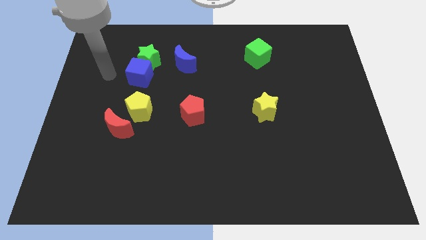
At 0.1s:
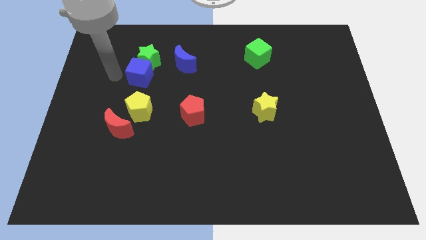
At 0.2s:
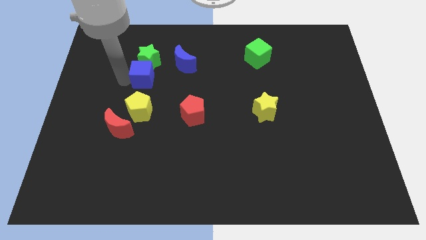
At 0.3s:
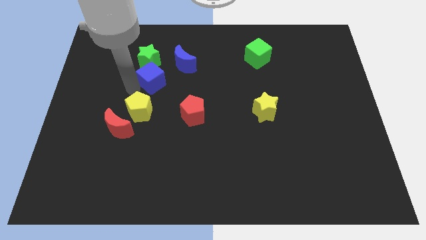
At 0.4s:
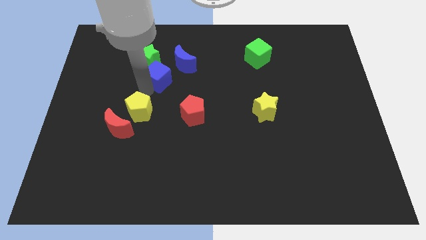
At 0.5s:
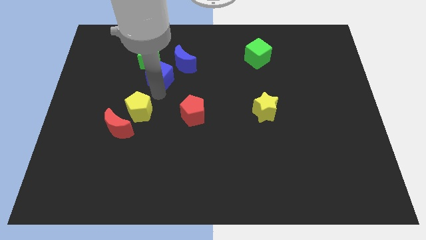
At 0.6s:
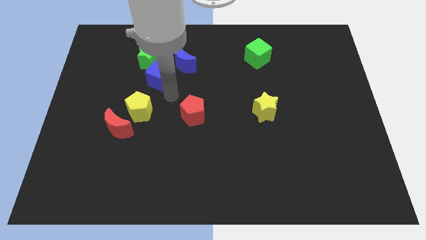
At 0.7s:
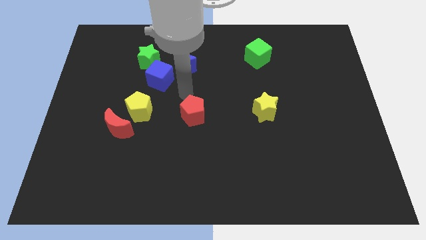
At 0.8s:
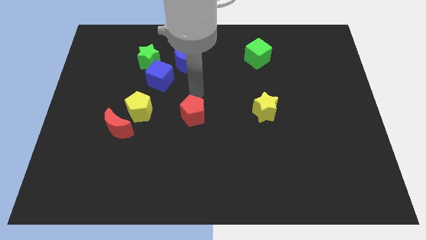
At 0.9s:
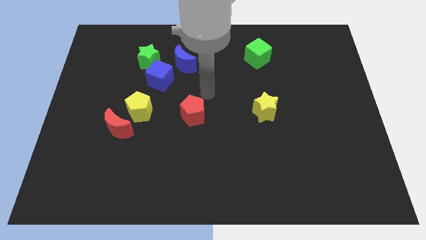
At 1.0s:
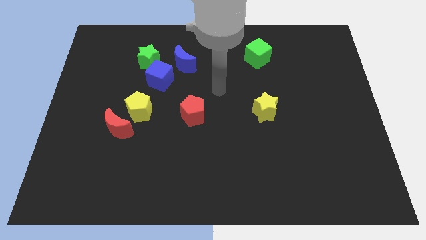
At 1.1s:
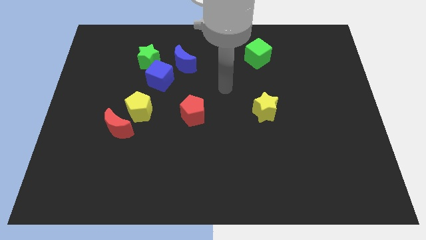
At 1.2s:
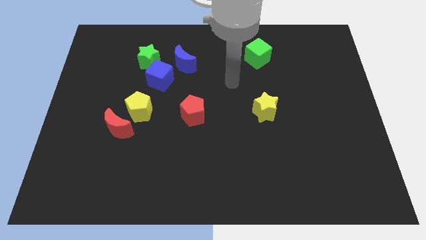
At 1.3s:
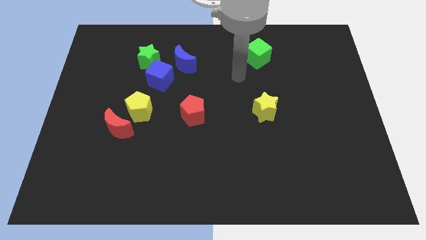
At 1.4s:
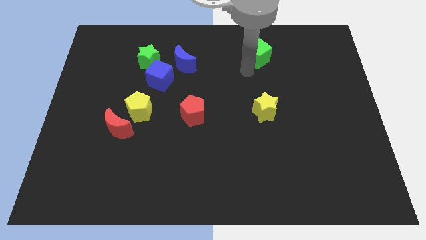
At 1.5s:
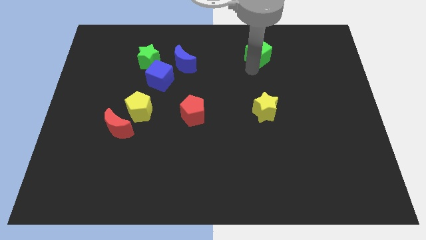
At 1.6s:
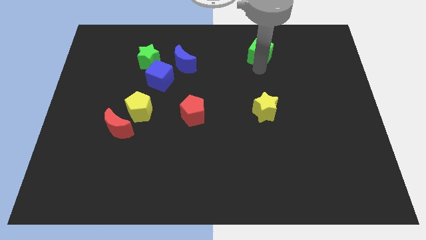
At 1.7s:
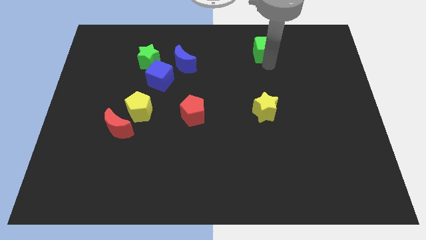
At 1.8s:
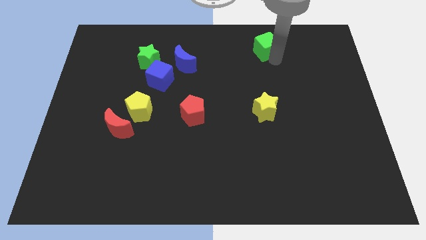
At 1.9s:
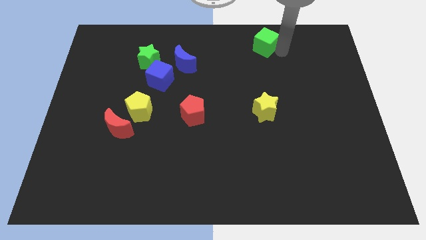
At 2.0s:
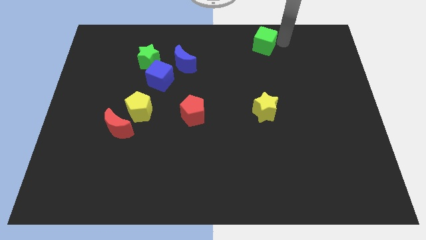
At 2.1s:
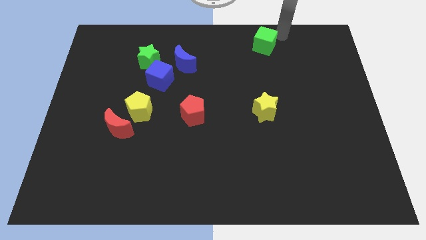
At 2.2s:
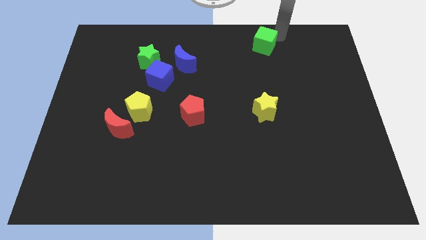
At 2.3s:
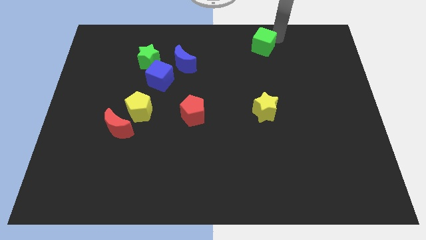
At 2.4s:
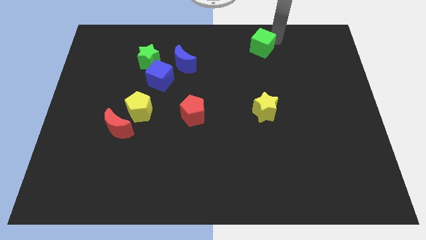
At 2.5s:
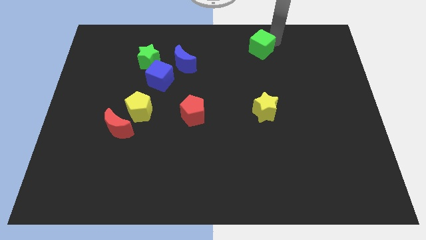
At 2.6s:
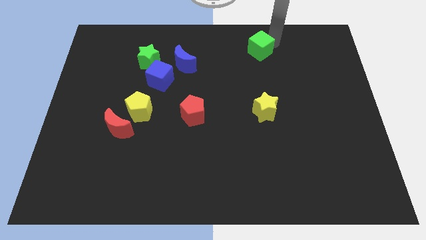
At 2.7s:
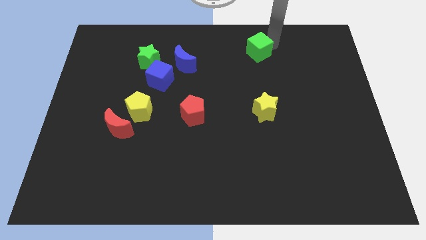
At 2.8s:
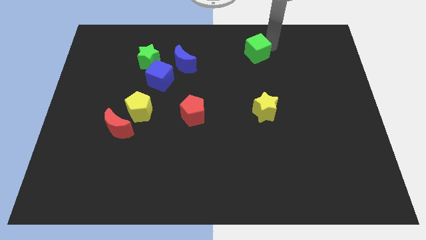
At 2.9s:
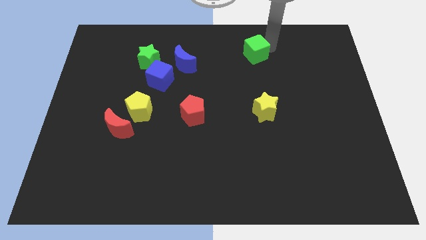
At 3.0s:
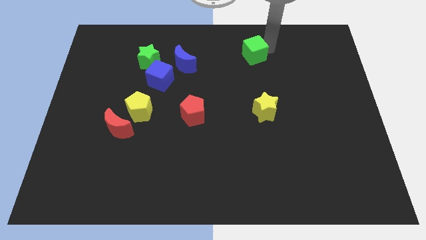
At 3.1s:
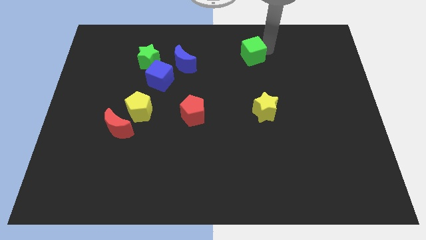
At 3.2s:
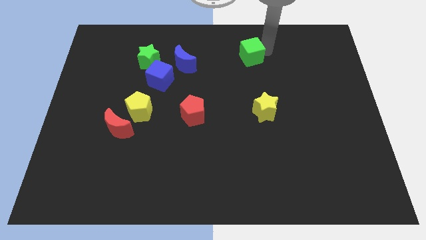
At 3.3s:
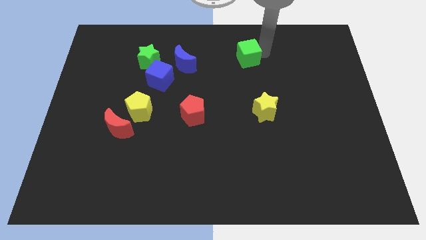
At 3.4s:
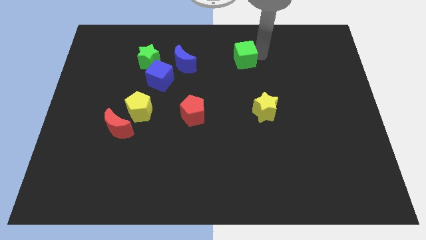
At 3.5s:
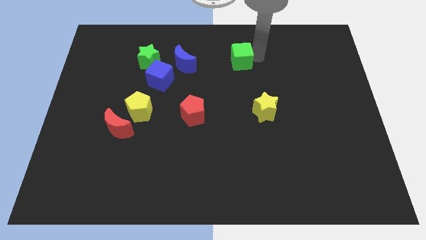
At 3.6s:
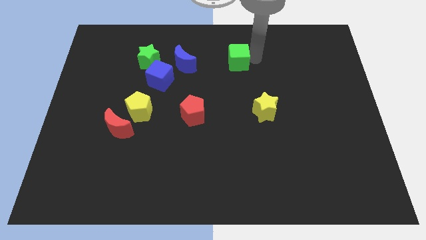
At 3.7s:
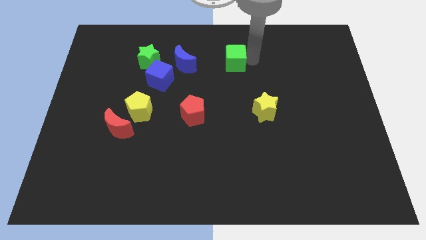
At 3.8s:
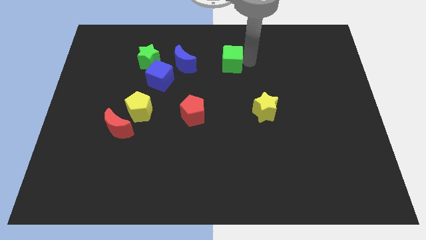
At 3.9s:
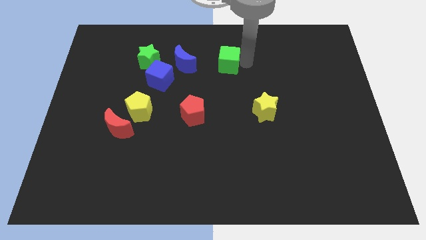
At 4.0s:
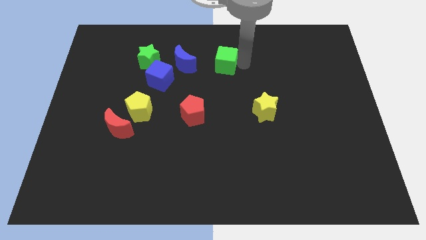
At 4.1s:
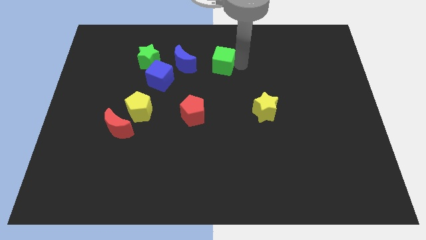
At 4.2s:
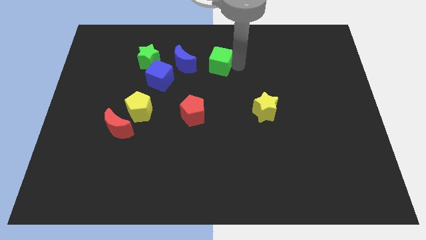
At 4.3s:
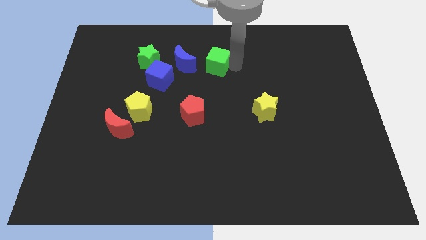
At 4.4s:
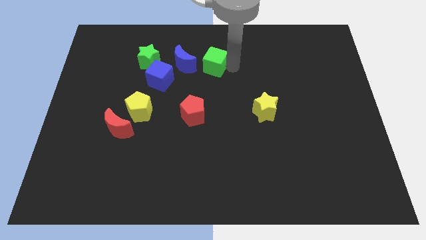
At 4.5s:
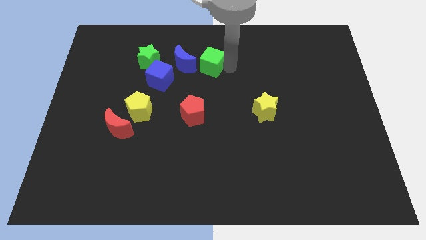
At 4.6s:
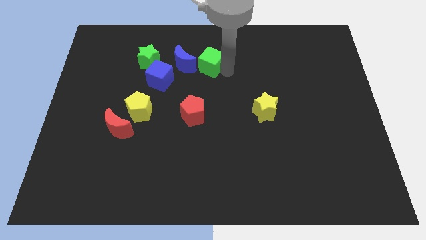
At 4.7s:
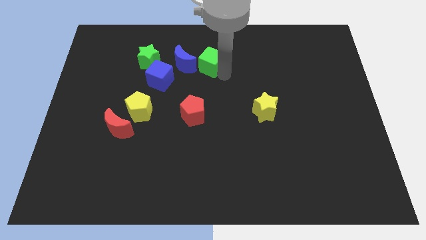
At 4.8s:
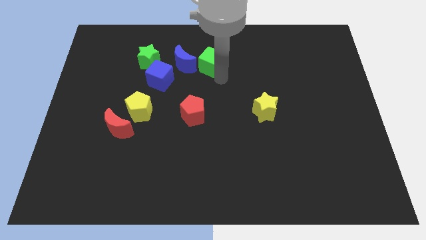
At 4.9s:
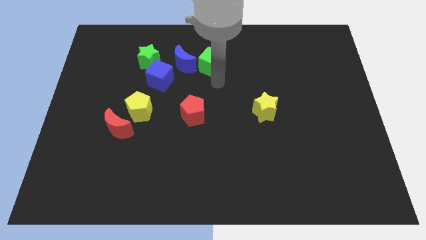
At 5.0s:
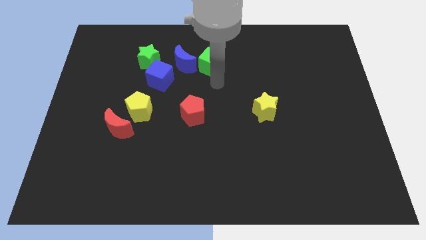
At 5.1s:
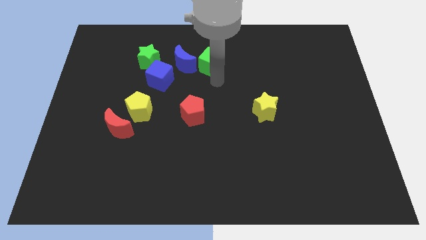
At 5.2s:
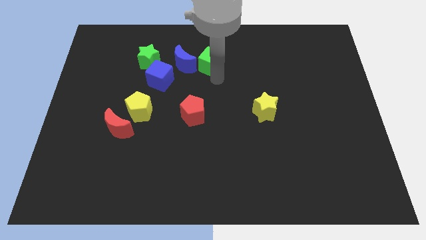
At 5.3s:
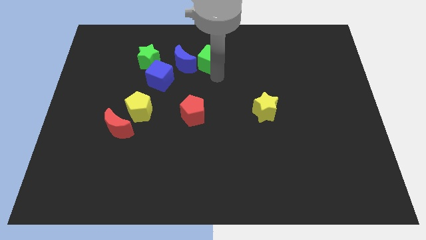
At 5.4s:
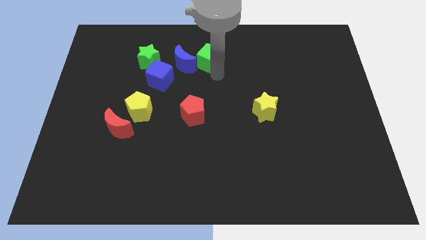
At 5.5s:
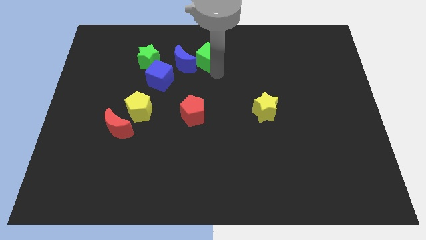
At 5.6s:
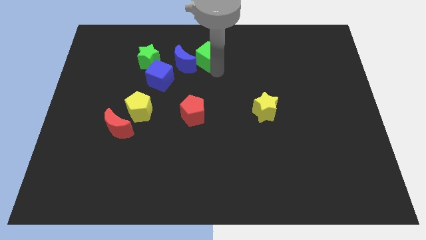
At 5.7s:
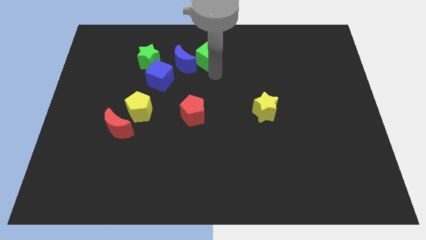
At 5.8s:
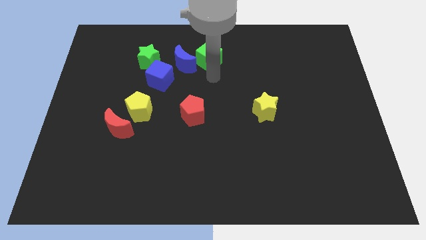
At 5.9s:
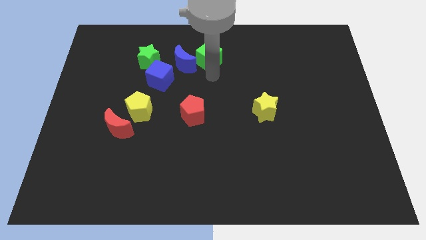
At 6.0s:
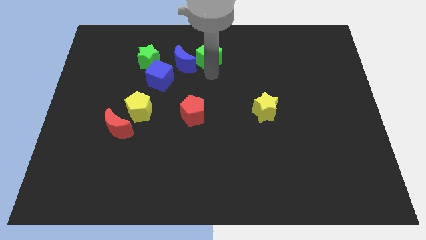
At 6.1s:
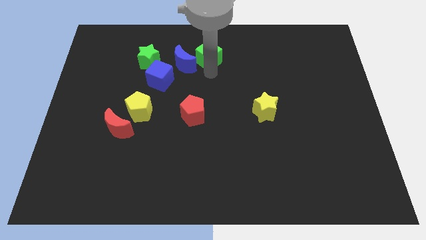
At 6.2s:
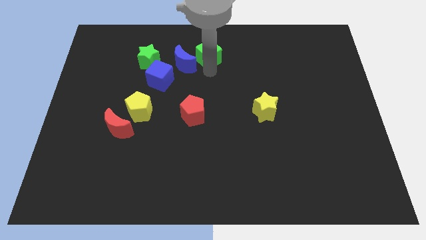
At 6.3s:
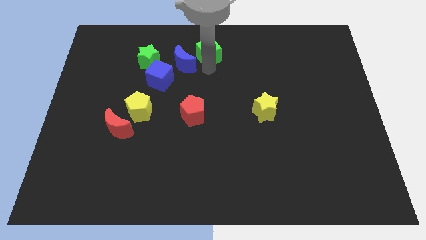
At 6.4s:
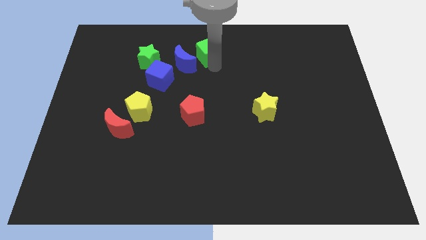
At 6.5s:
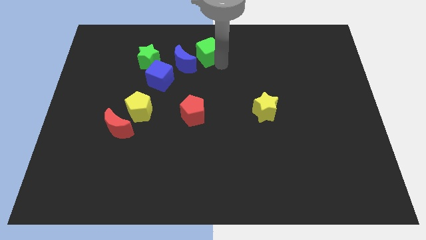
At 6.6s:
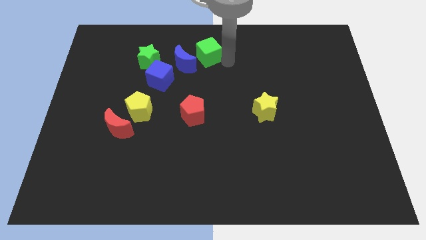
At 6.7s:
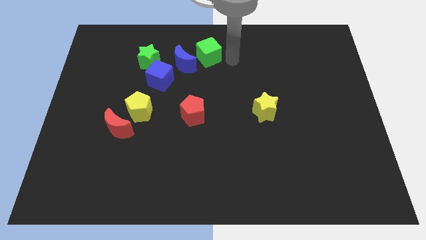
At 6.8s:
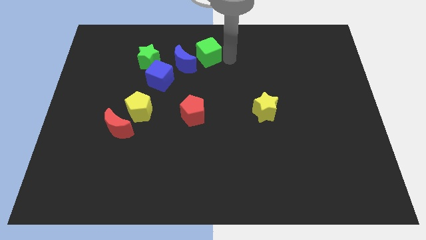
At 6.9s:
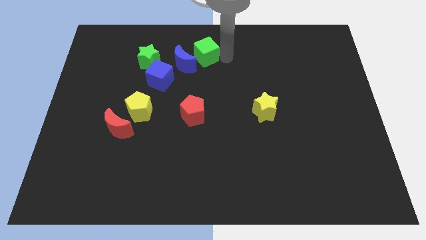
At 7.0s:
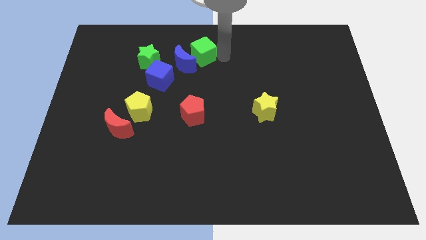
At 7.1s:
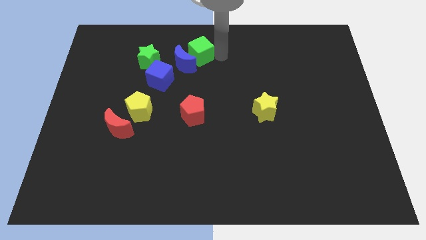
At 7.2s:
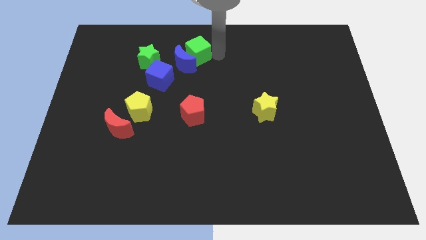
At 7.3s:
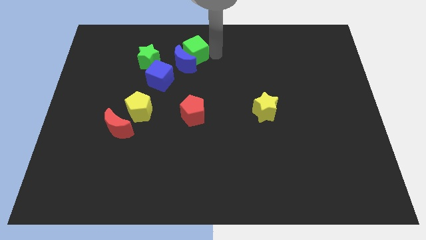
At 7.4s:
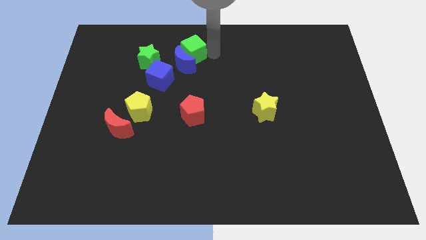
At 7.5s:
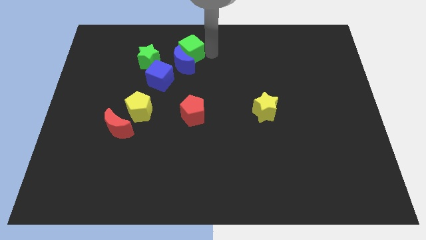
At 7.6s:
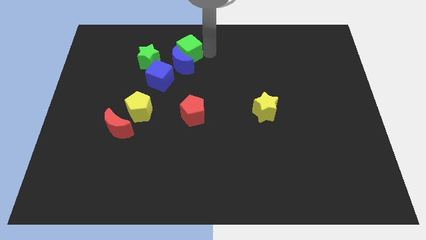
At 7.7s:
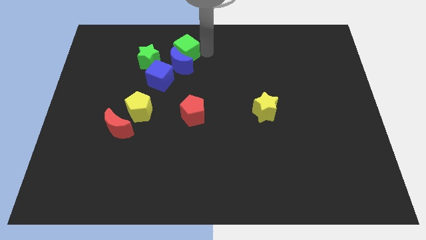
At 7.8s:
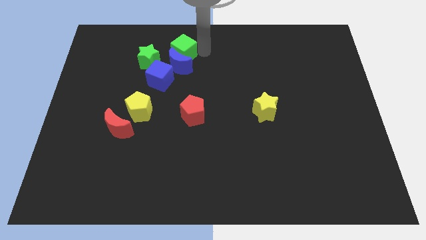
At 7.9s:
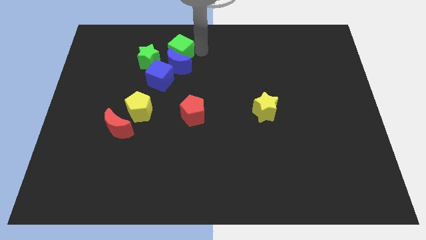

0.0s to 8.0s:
push the green cube left

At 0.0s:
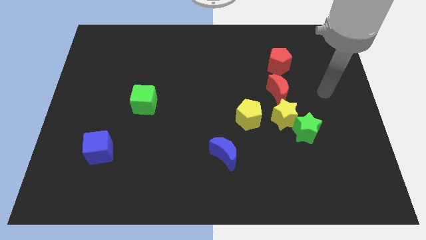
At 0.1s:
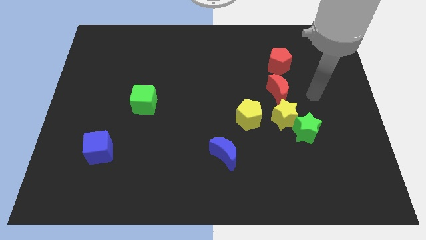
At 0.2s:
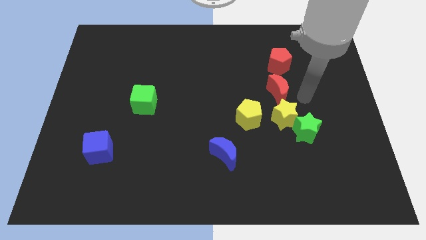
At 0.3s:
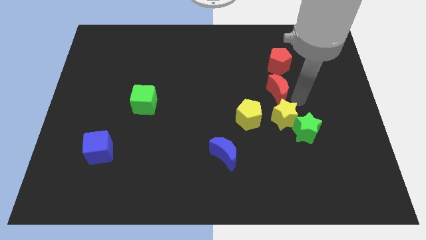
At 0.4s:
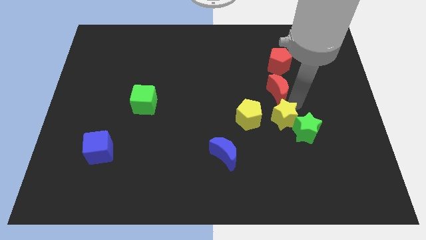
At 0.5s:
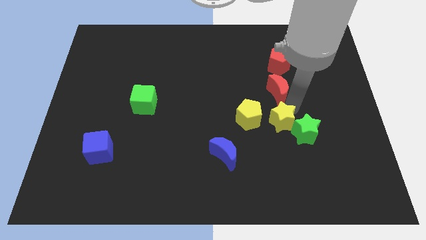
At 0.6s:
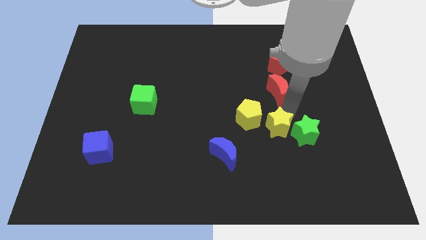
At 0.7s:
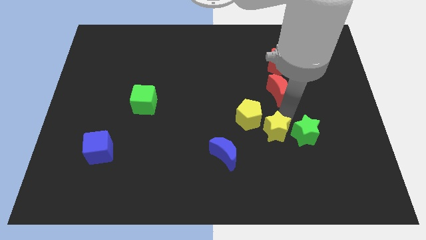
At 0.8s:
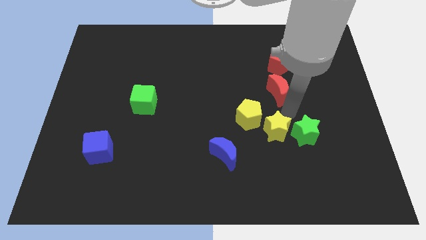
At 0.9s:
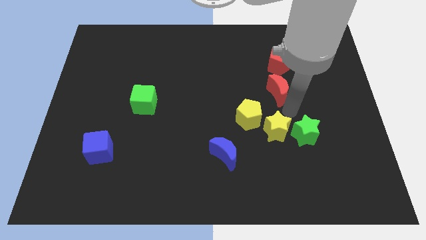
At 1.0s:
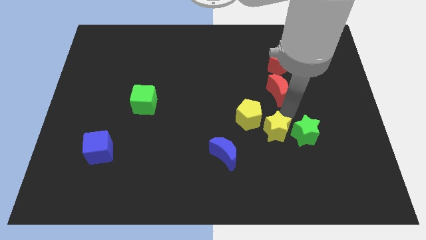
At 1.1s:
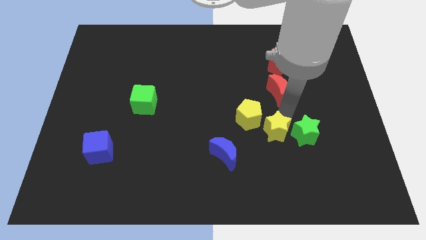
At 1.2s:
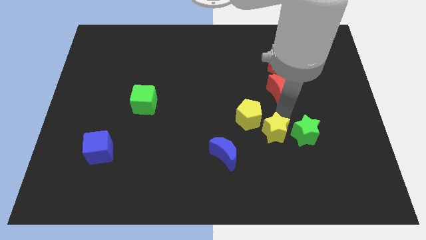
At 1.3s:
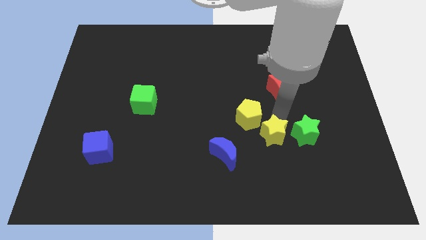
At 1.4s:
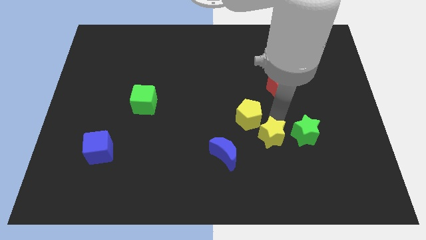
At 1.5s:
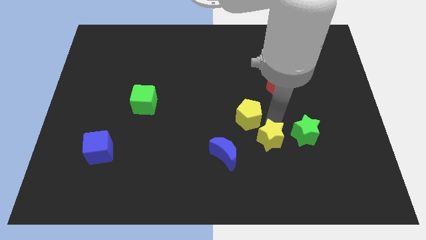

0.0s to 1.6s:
push the yellow star diagonally down and left somewhat
